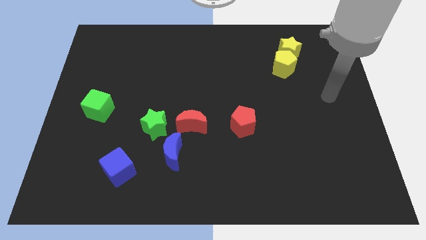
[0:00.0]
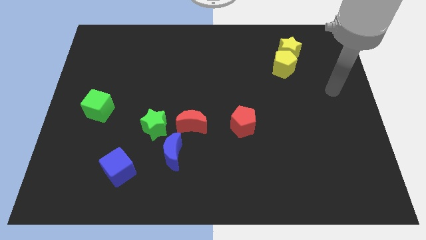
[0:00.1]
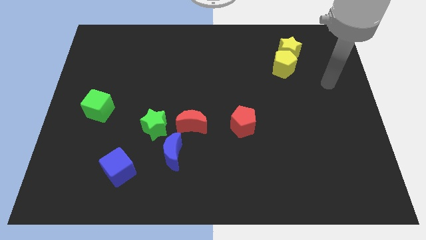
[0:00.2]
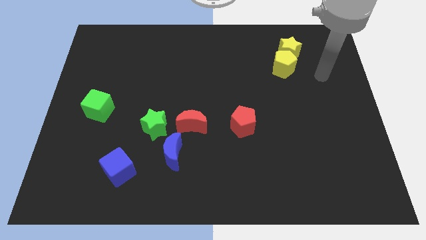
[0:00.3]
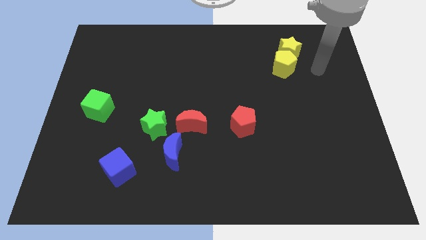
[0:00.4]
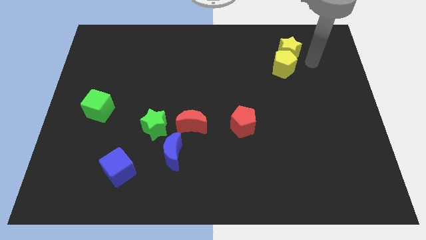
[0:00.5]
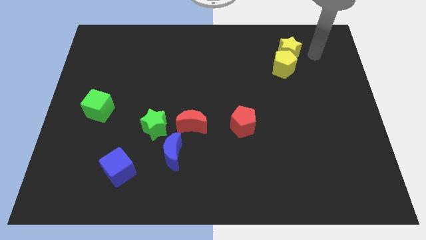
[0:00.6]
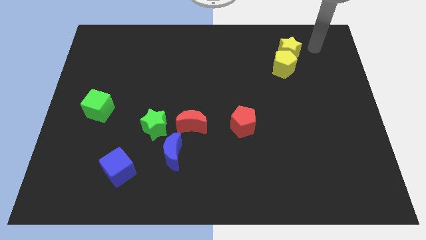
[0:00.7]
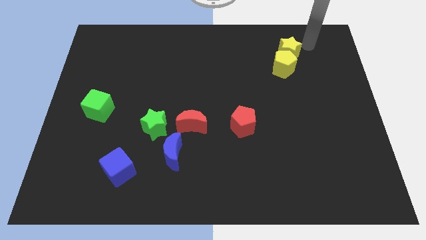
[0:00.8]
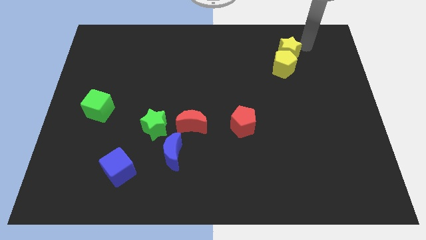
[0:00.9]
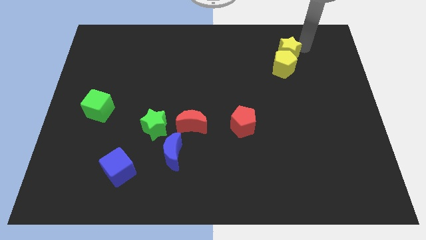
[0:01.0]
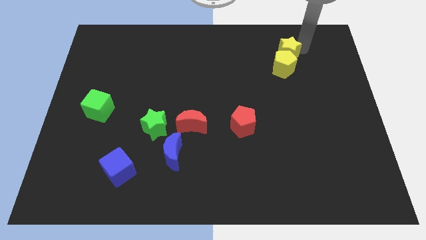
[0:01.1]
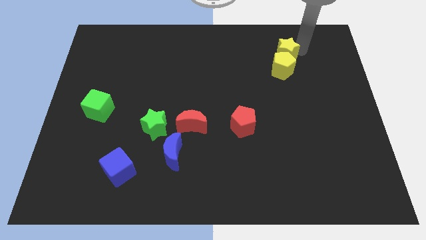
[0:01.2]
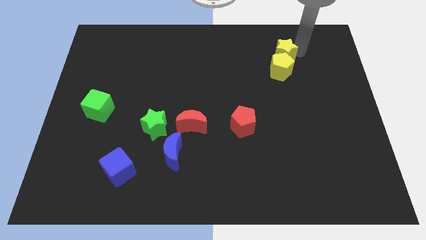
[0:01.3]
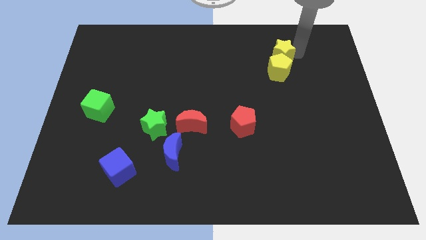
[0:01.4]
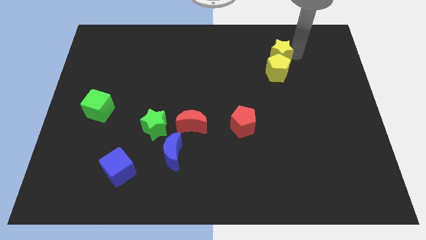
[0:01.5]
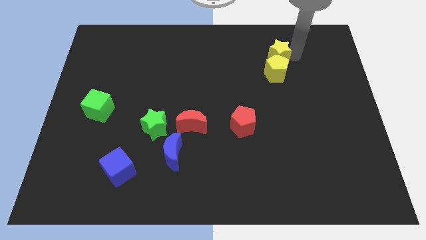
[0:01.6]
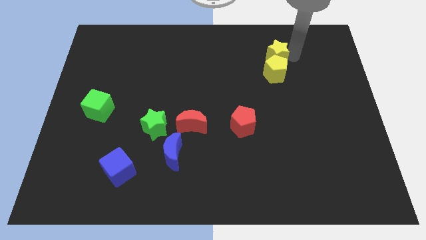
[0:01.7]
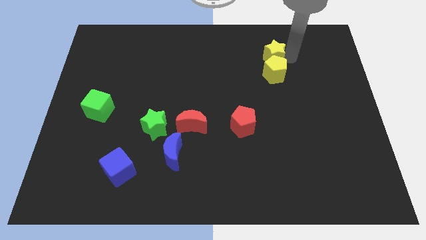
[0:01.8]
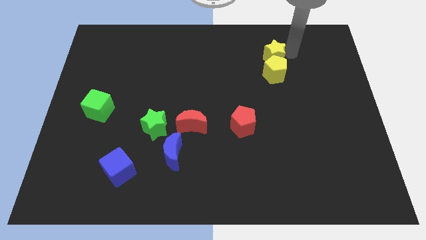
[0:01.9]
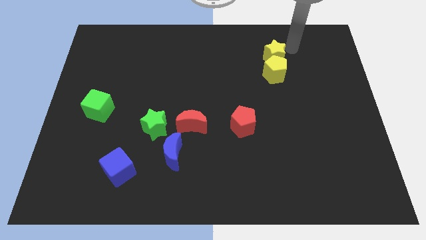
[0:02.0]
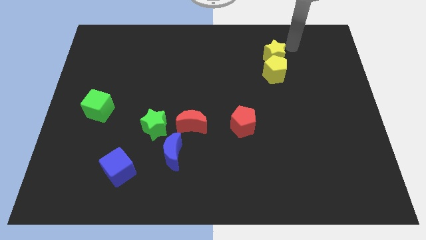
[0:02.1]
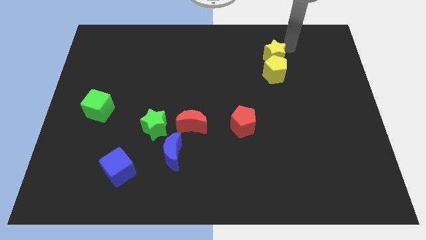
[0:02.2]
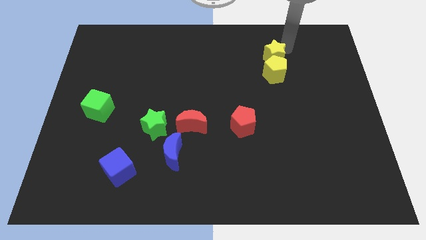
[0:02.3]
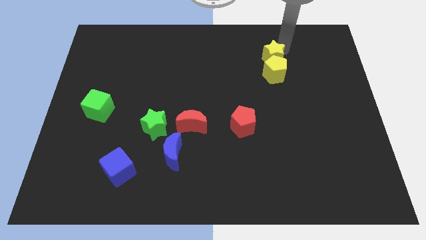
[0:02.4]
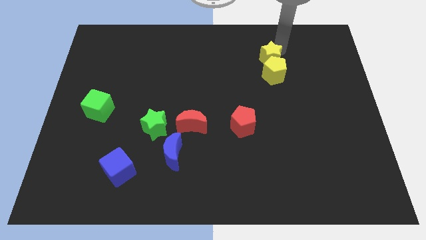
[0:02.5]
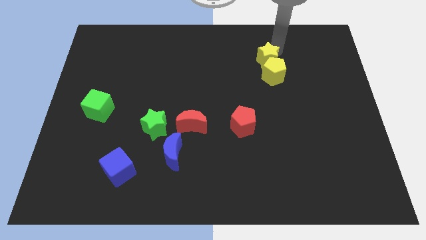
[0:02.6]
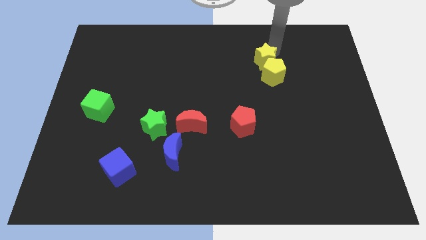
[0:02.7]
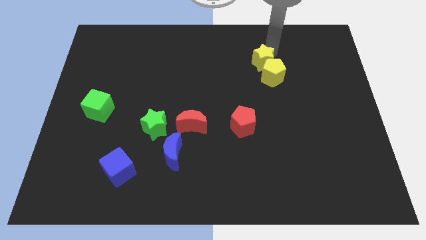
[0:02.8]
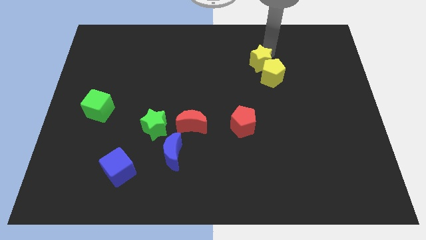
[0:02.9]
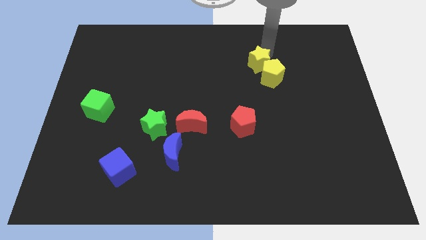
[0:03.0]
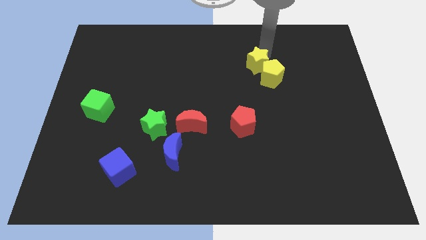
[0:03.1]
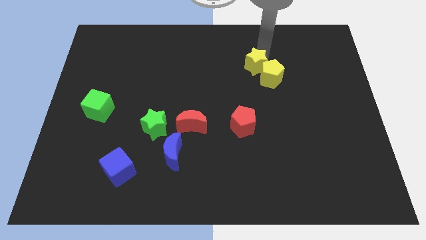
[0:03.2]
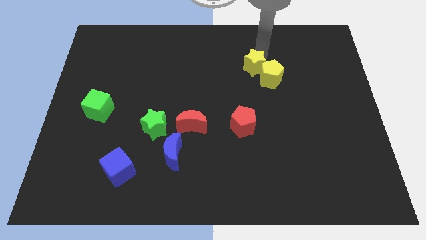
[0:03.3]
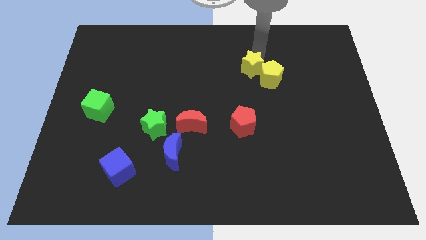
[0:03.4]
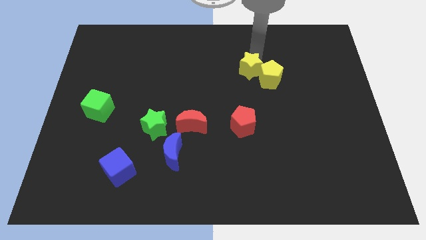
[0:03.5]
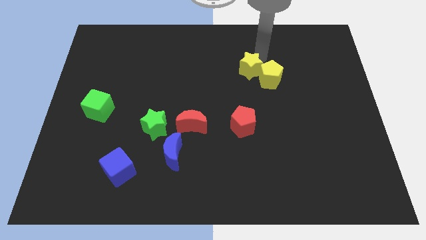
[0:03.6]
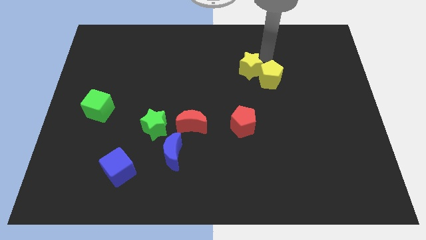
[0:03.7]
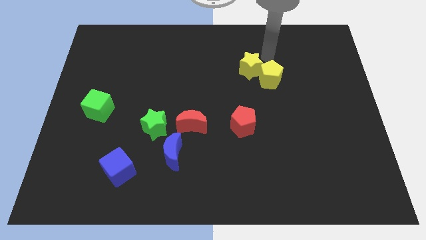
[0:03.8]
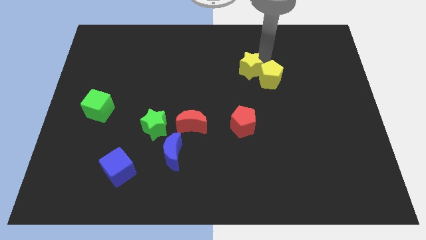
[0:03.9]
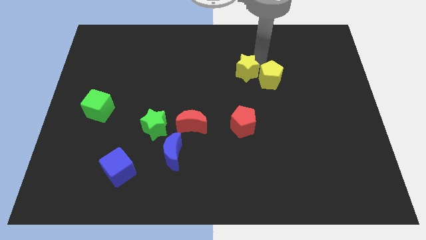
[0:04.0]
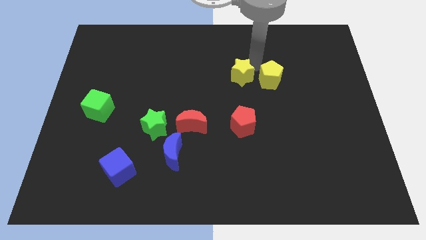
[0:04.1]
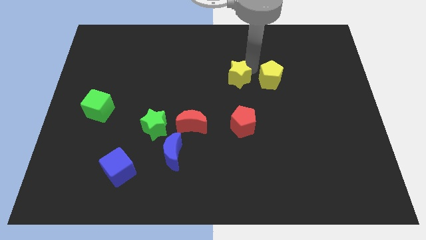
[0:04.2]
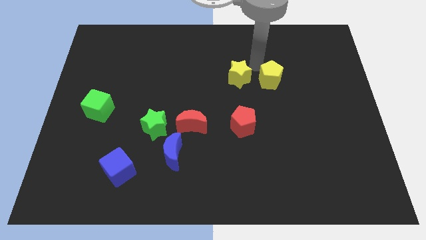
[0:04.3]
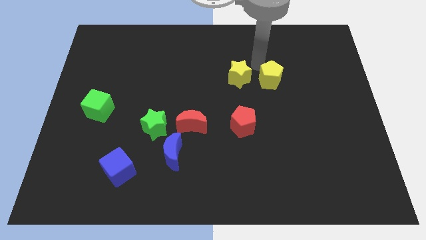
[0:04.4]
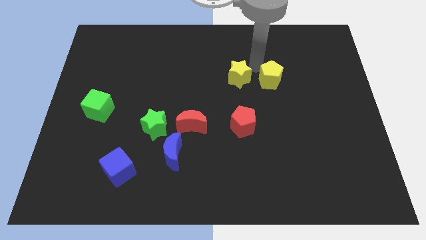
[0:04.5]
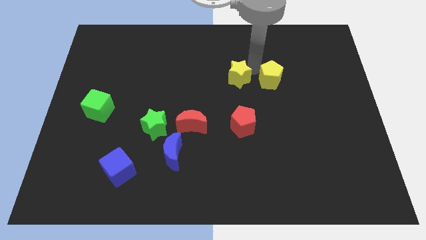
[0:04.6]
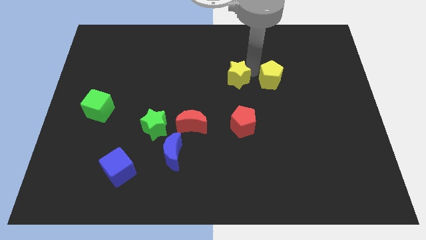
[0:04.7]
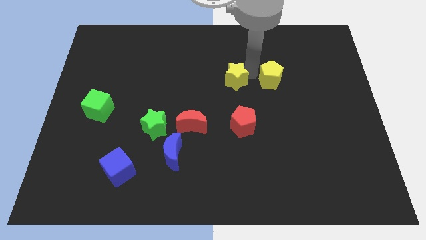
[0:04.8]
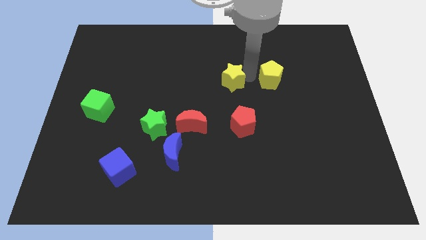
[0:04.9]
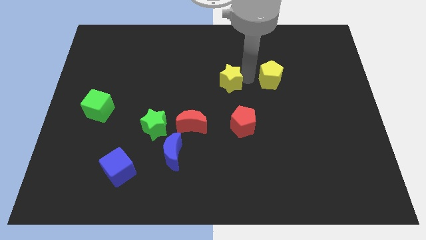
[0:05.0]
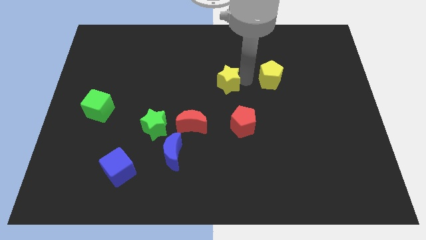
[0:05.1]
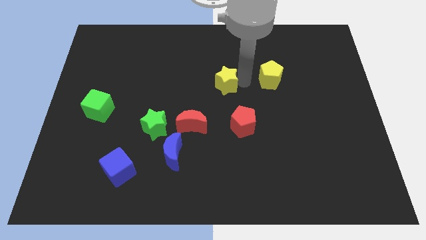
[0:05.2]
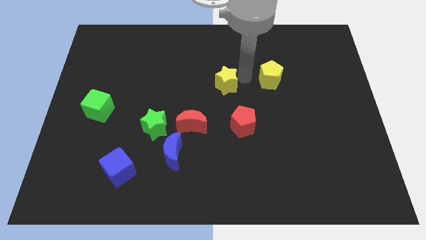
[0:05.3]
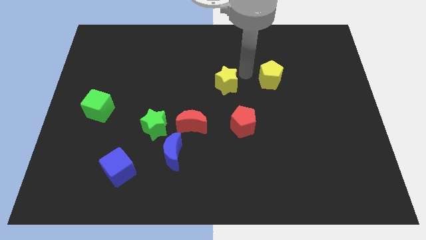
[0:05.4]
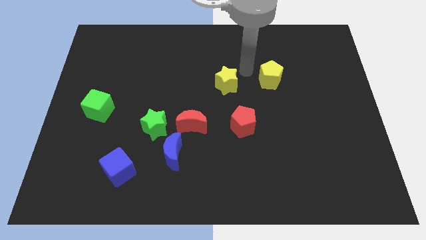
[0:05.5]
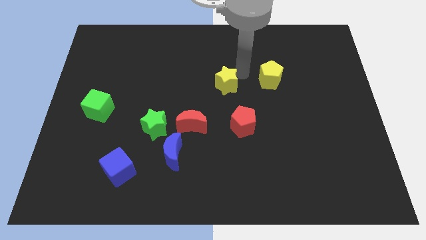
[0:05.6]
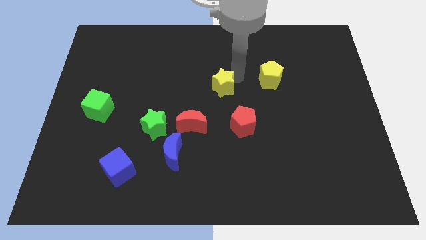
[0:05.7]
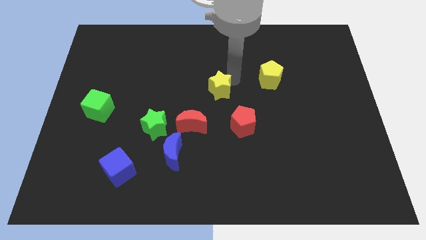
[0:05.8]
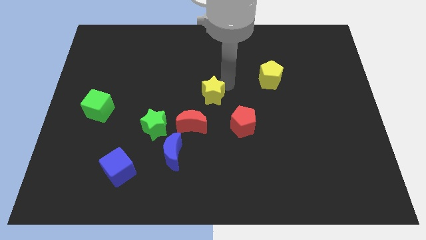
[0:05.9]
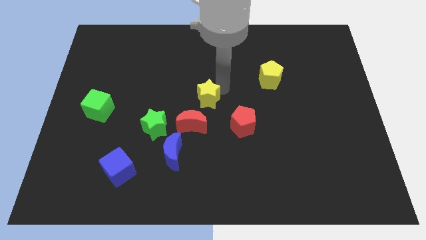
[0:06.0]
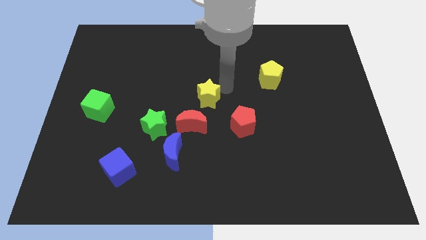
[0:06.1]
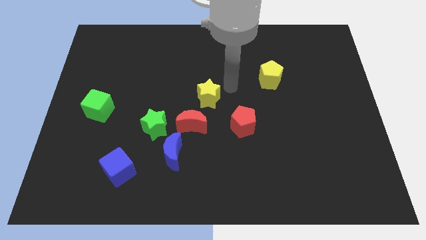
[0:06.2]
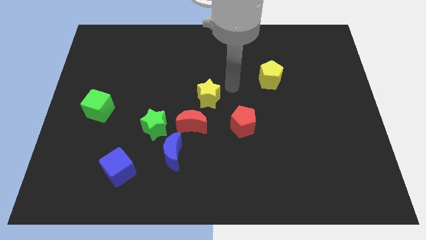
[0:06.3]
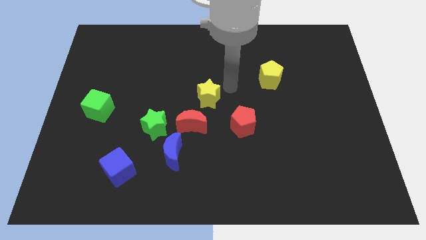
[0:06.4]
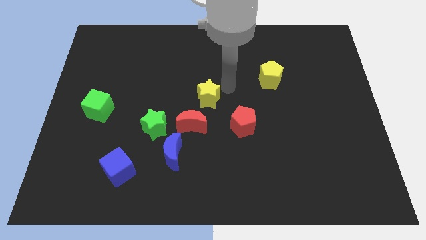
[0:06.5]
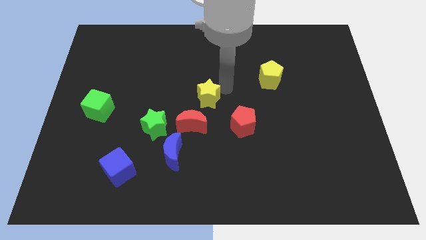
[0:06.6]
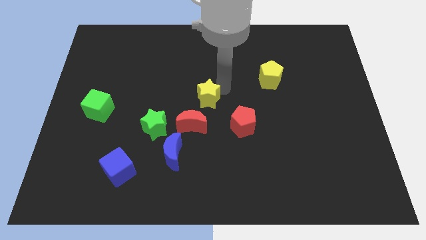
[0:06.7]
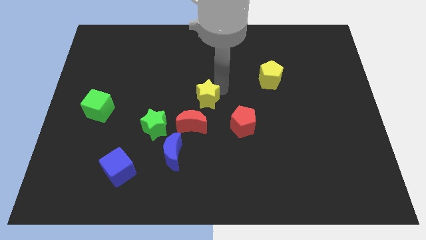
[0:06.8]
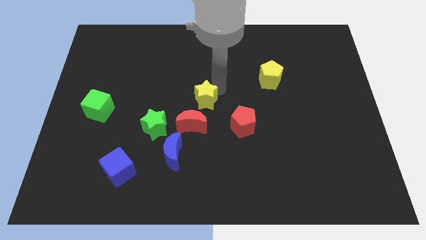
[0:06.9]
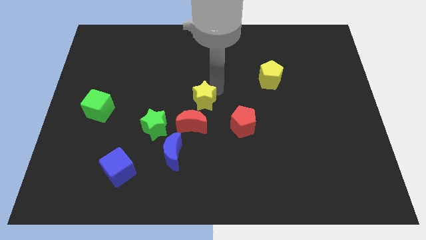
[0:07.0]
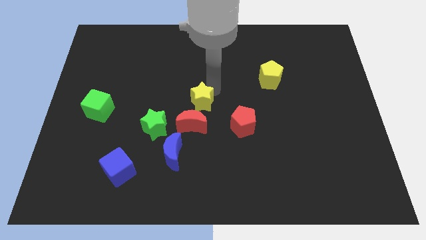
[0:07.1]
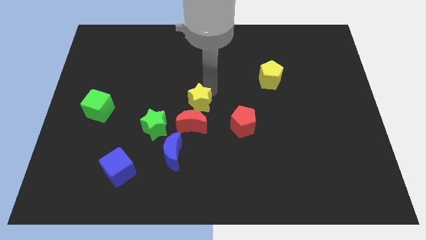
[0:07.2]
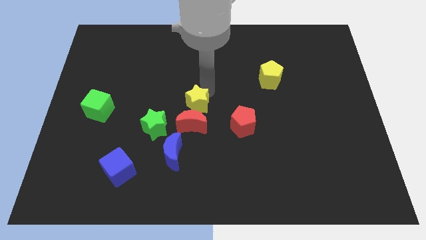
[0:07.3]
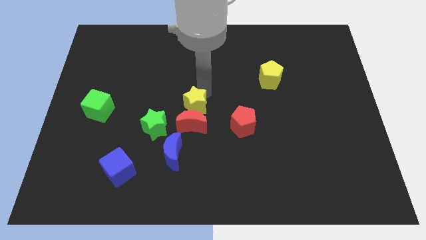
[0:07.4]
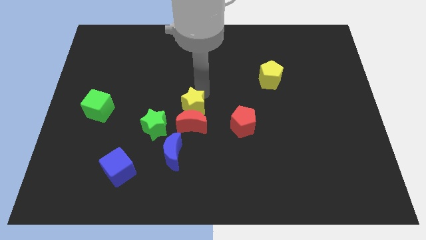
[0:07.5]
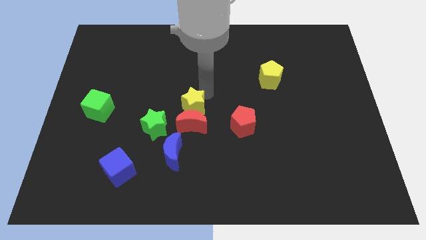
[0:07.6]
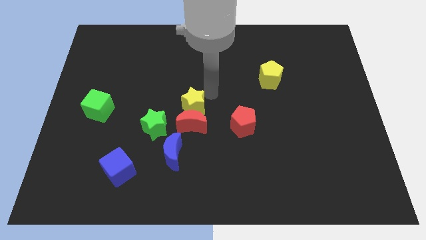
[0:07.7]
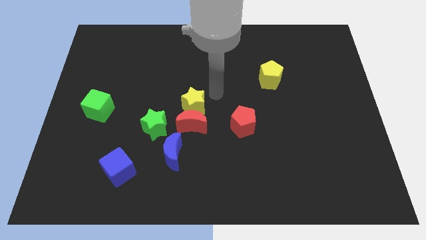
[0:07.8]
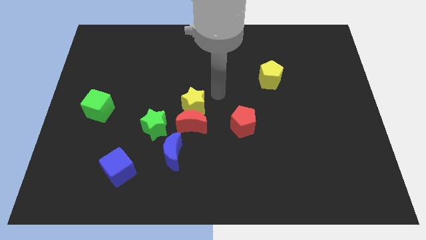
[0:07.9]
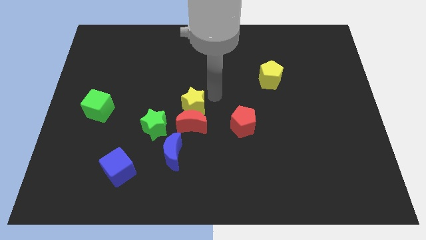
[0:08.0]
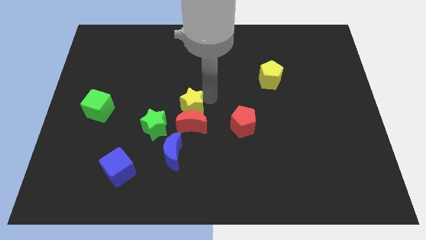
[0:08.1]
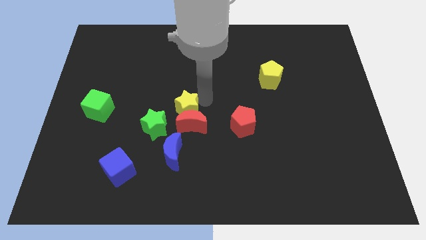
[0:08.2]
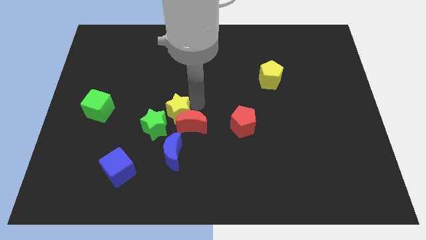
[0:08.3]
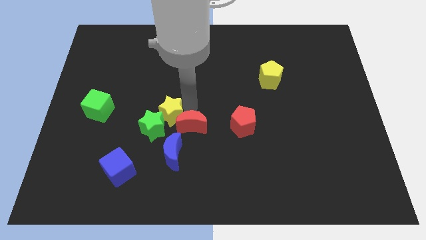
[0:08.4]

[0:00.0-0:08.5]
push the yellow star to the green star
